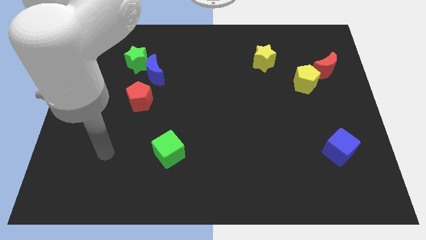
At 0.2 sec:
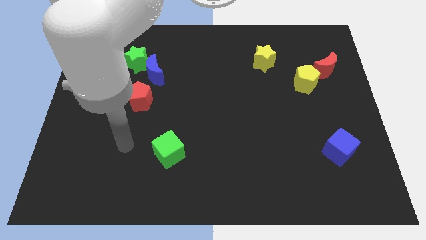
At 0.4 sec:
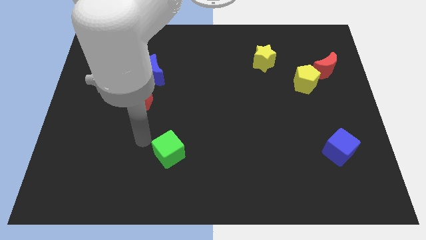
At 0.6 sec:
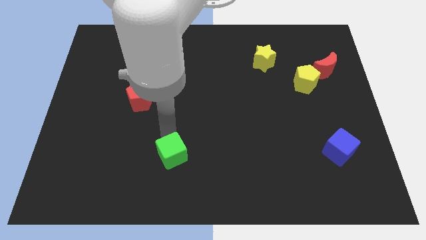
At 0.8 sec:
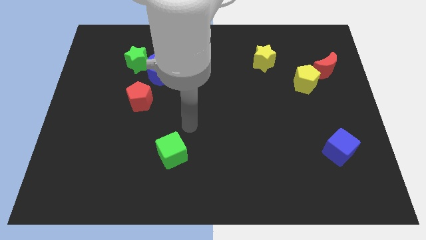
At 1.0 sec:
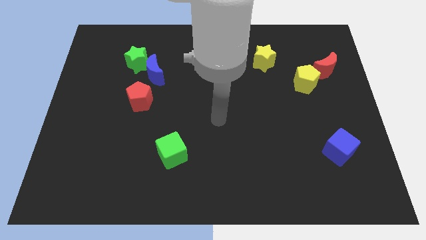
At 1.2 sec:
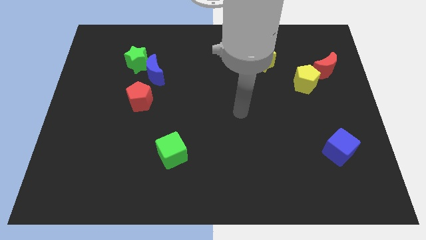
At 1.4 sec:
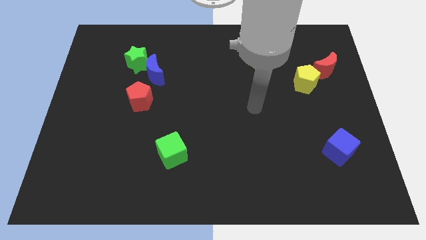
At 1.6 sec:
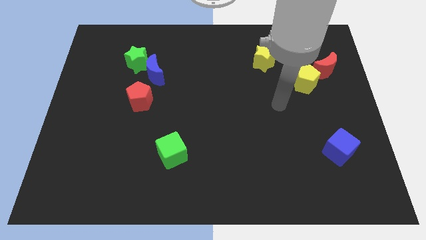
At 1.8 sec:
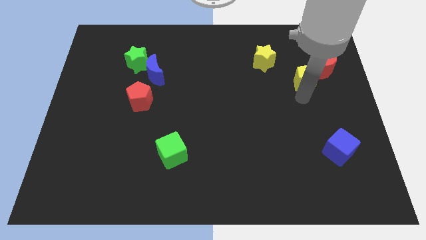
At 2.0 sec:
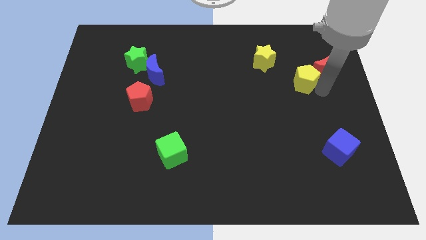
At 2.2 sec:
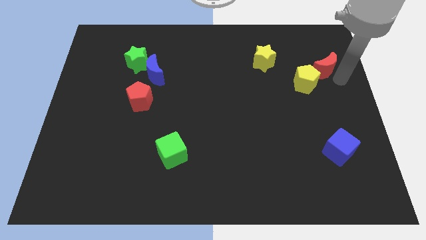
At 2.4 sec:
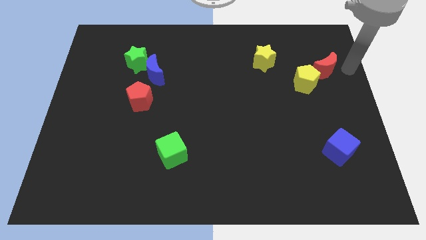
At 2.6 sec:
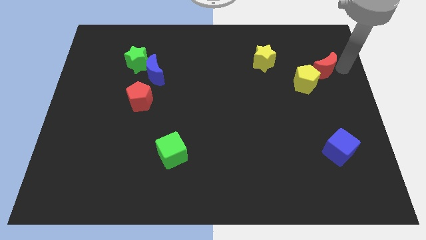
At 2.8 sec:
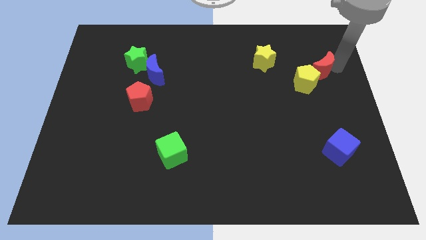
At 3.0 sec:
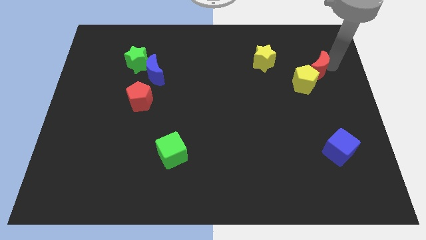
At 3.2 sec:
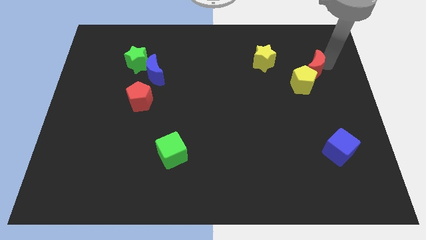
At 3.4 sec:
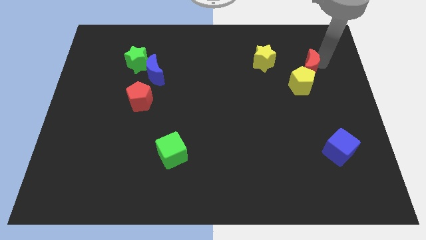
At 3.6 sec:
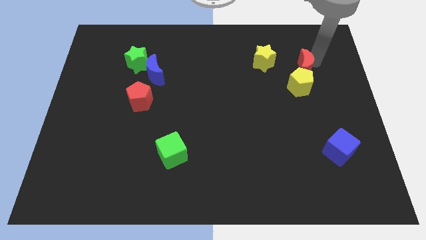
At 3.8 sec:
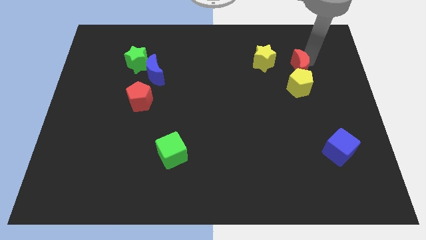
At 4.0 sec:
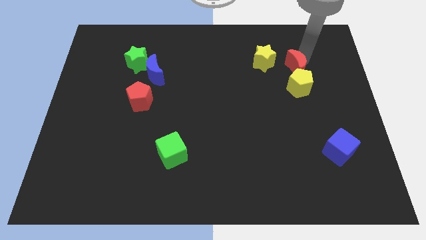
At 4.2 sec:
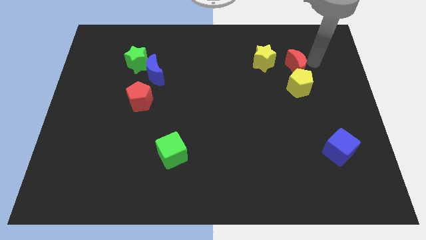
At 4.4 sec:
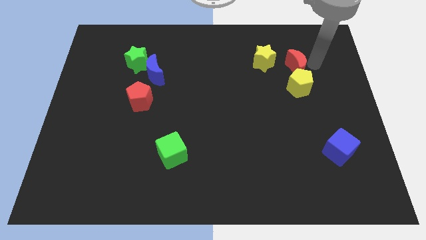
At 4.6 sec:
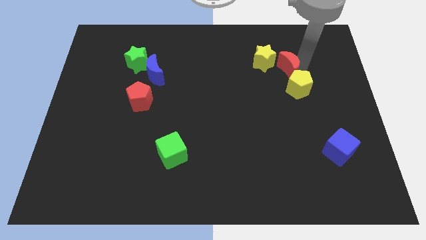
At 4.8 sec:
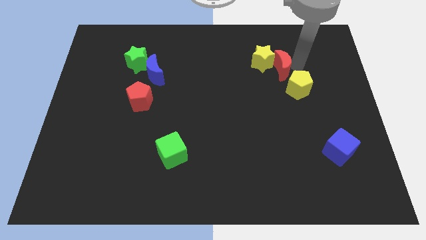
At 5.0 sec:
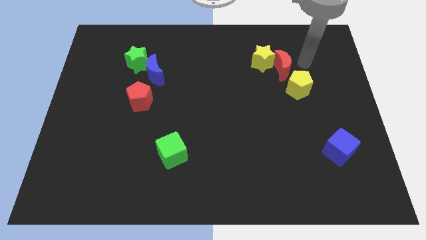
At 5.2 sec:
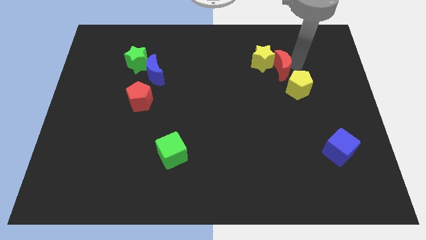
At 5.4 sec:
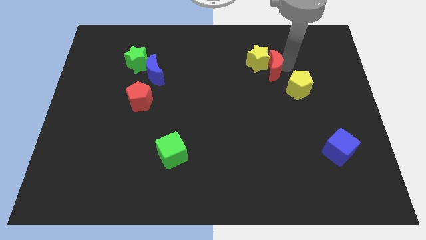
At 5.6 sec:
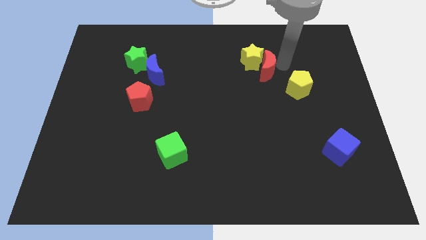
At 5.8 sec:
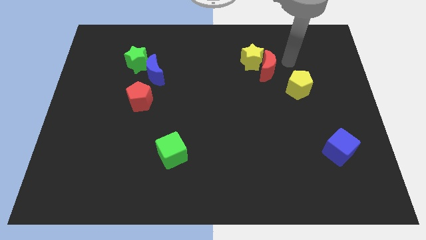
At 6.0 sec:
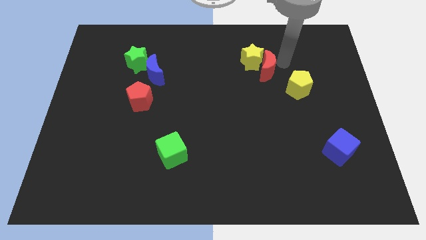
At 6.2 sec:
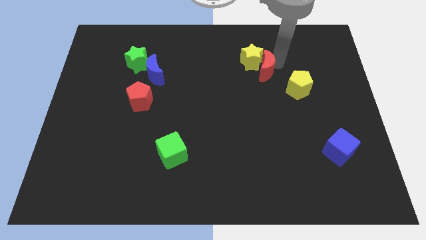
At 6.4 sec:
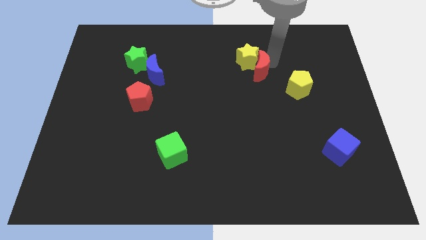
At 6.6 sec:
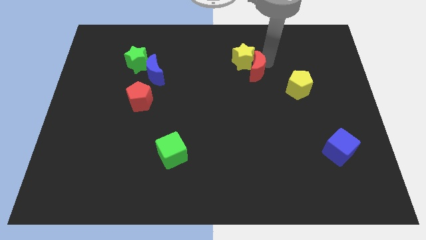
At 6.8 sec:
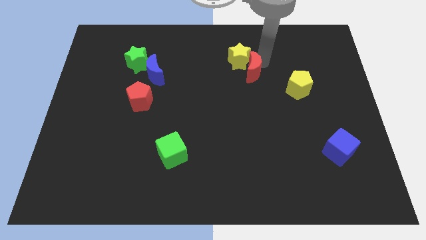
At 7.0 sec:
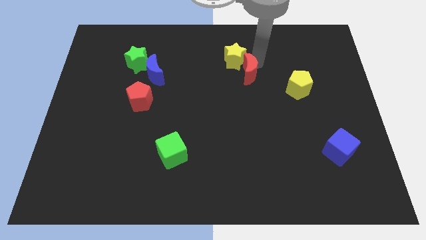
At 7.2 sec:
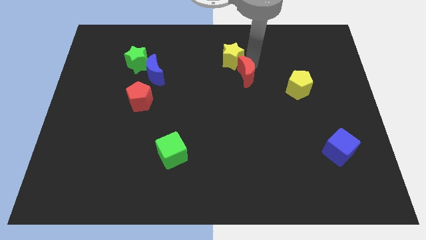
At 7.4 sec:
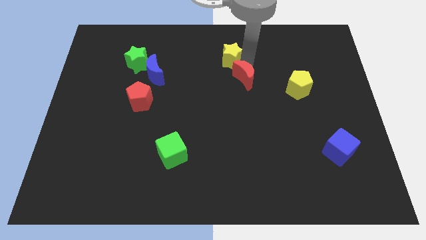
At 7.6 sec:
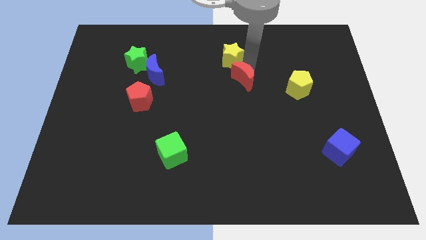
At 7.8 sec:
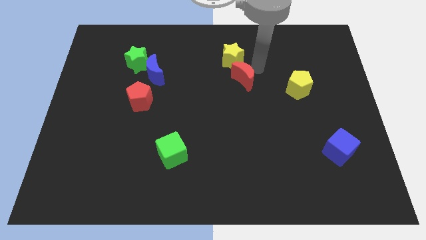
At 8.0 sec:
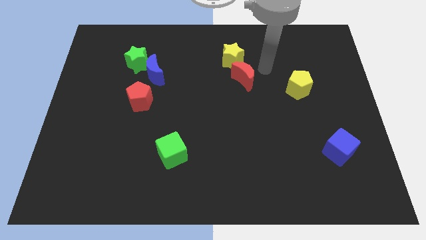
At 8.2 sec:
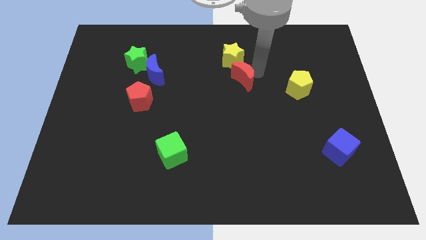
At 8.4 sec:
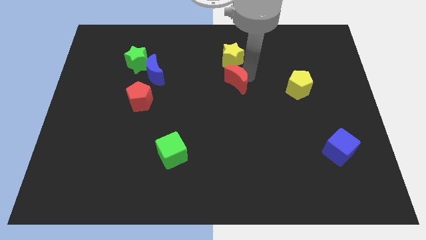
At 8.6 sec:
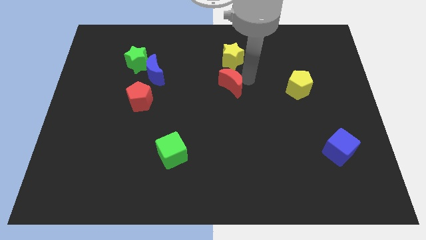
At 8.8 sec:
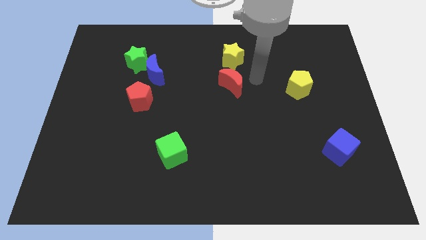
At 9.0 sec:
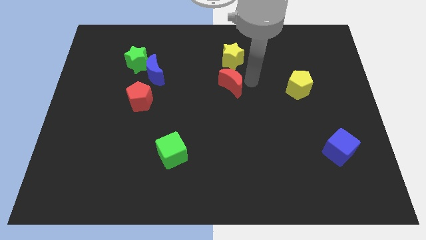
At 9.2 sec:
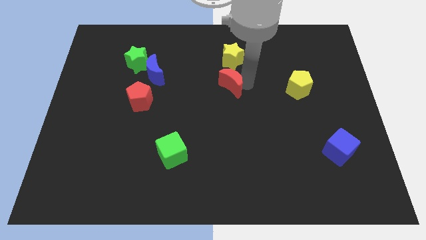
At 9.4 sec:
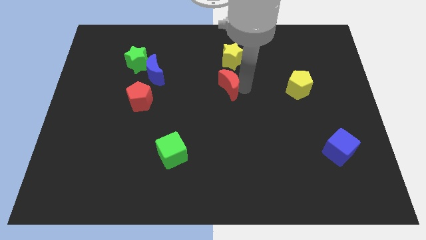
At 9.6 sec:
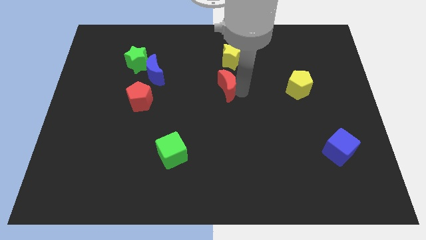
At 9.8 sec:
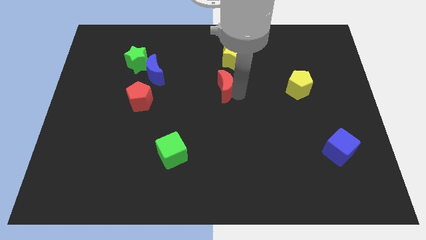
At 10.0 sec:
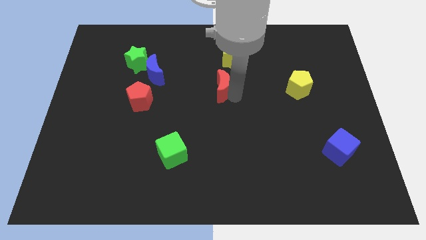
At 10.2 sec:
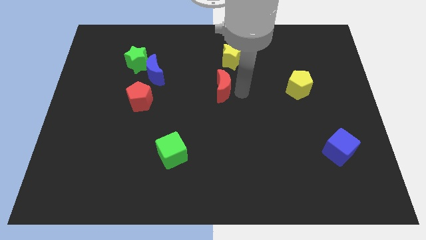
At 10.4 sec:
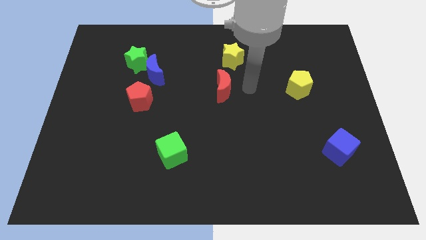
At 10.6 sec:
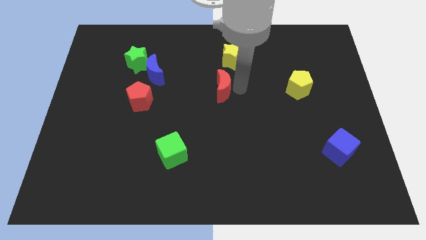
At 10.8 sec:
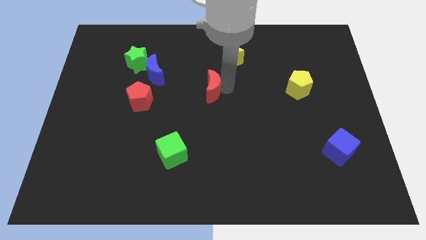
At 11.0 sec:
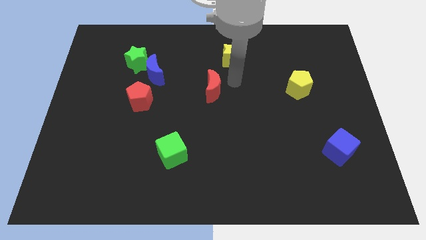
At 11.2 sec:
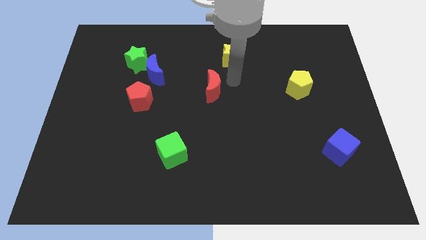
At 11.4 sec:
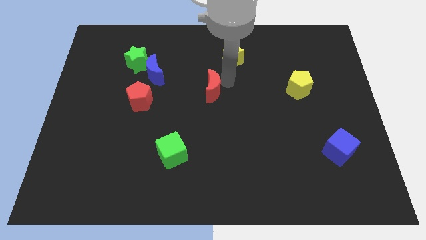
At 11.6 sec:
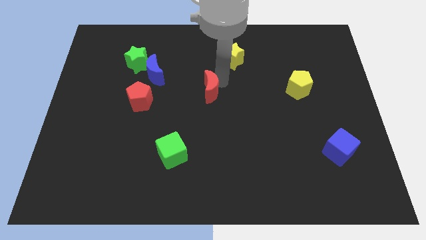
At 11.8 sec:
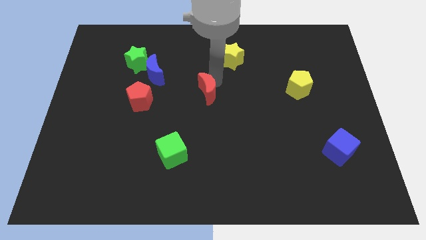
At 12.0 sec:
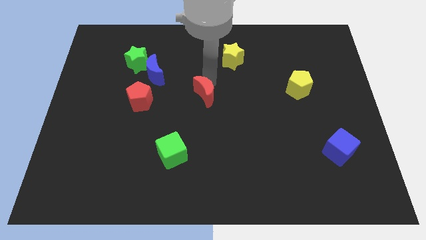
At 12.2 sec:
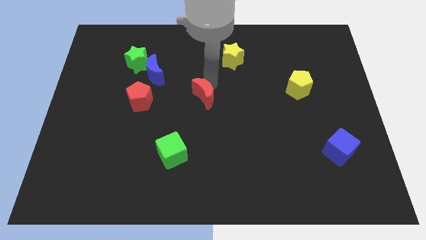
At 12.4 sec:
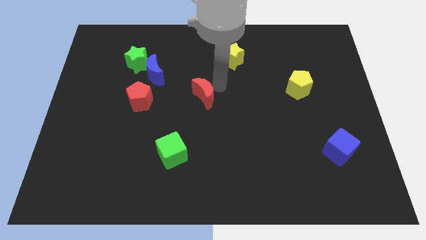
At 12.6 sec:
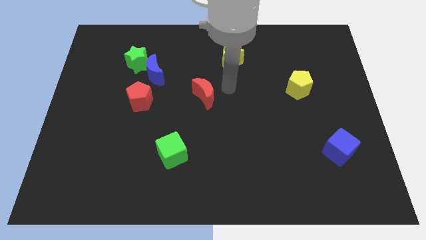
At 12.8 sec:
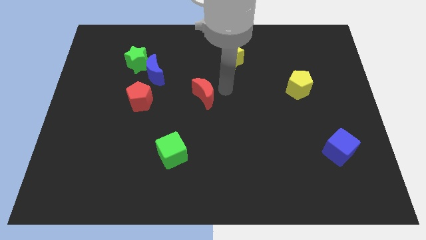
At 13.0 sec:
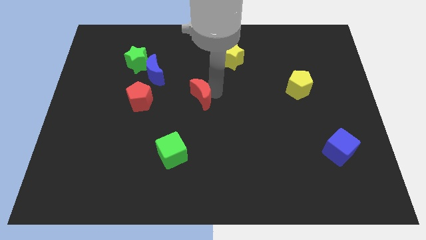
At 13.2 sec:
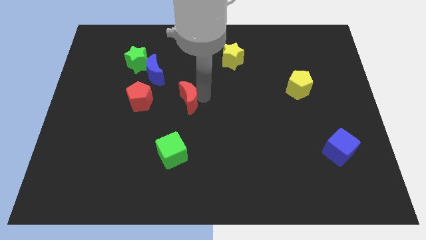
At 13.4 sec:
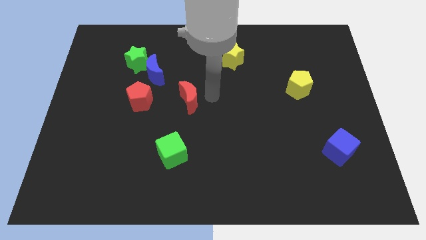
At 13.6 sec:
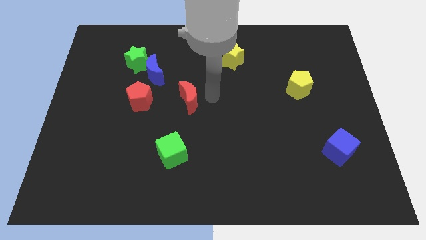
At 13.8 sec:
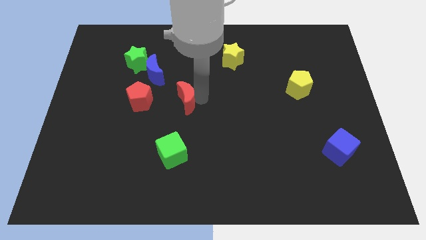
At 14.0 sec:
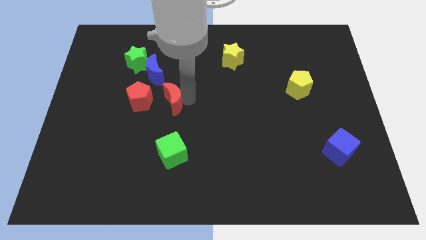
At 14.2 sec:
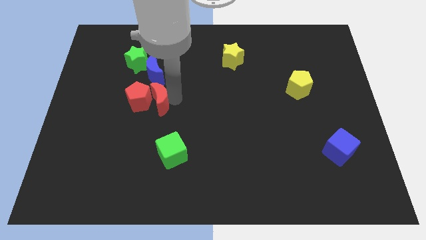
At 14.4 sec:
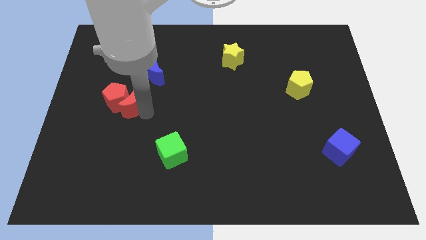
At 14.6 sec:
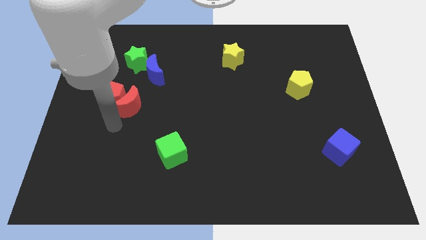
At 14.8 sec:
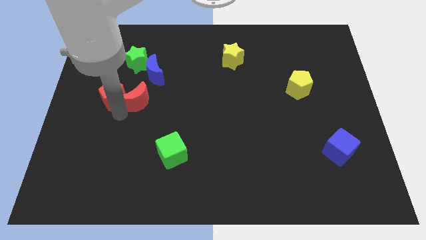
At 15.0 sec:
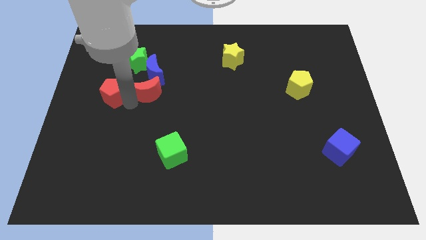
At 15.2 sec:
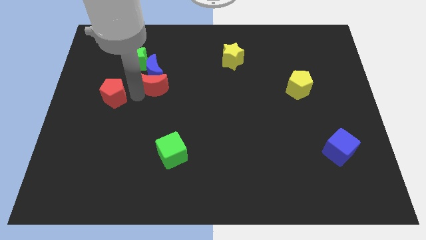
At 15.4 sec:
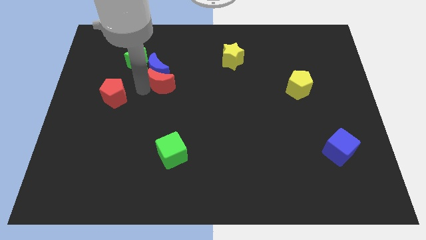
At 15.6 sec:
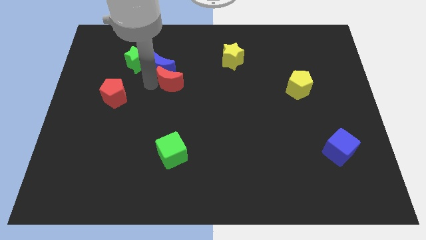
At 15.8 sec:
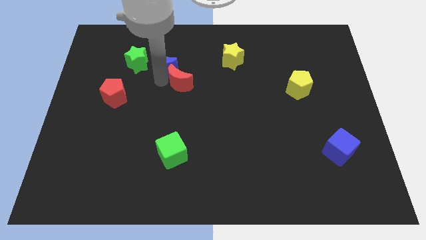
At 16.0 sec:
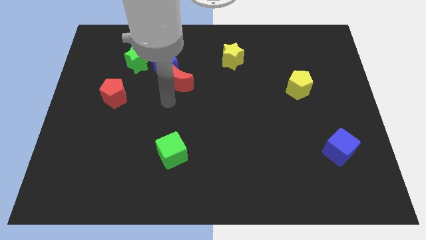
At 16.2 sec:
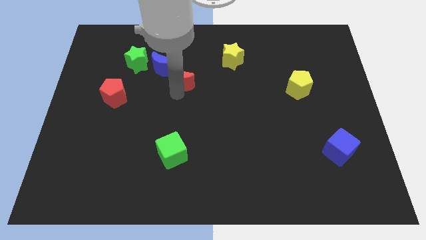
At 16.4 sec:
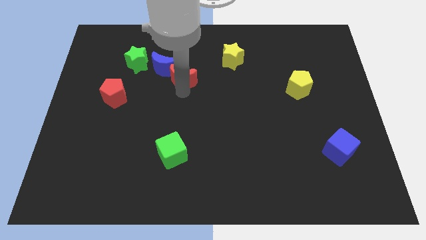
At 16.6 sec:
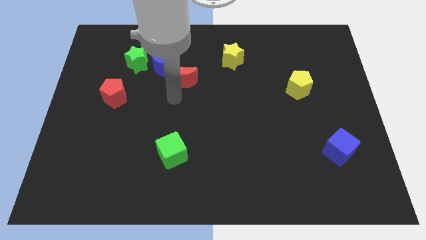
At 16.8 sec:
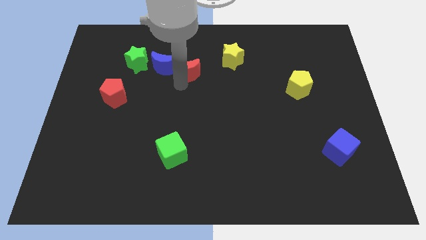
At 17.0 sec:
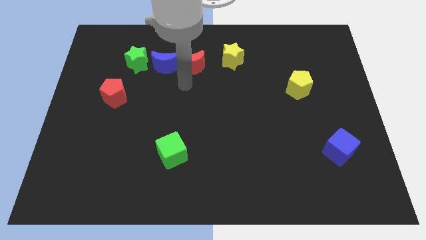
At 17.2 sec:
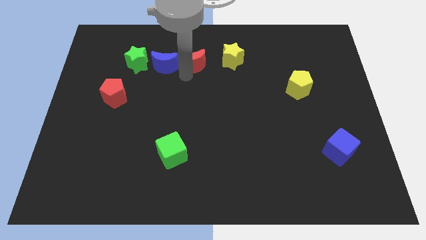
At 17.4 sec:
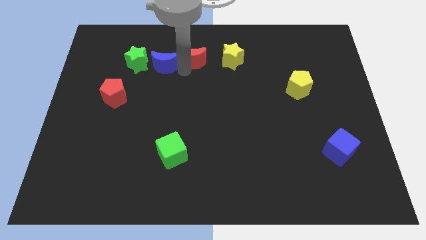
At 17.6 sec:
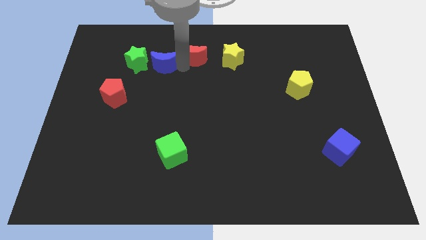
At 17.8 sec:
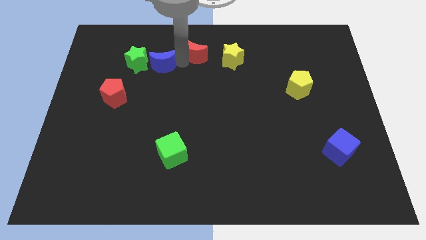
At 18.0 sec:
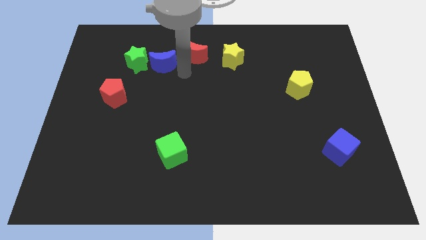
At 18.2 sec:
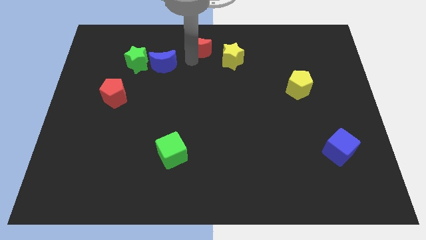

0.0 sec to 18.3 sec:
slide the red moon to the towards your base
